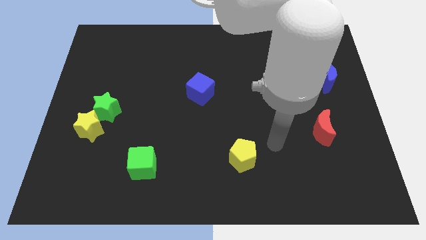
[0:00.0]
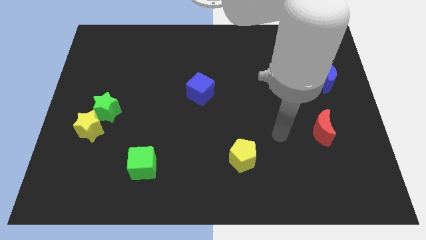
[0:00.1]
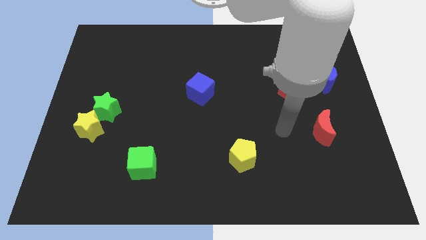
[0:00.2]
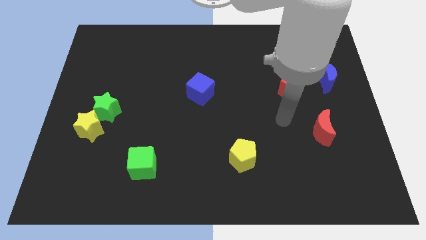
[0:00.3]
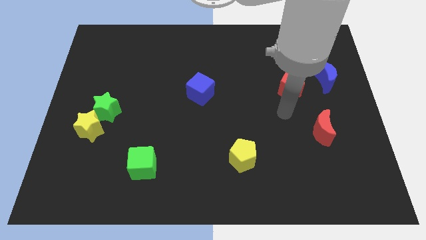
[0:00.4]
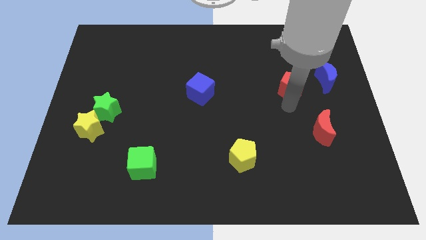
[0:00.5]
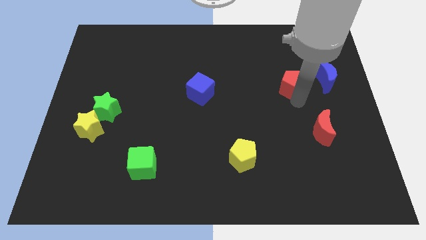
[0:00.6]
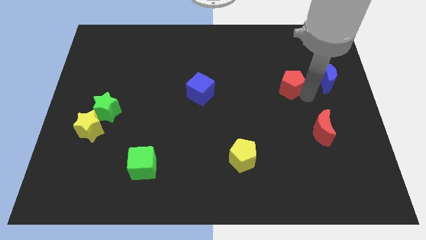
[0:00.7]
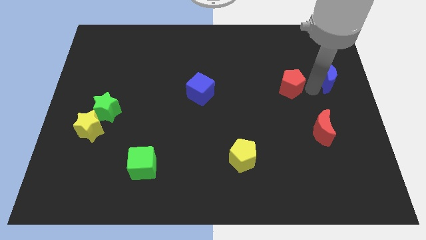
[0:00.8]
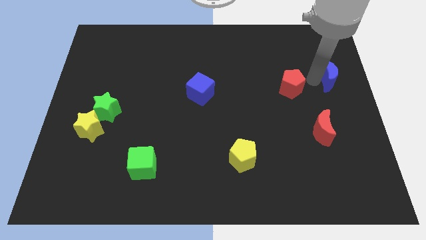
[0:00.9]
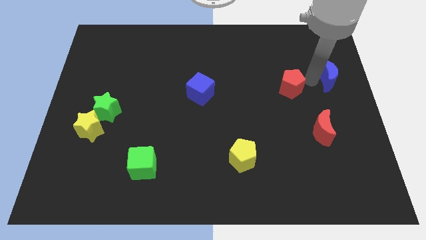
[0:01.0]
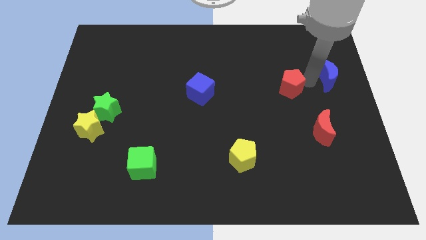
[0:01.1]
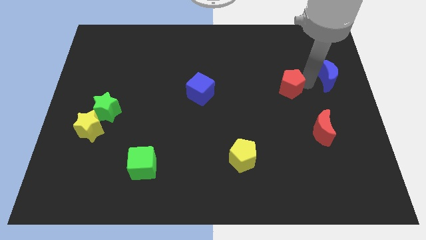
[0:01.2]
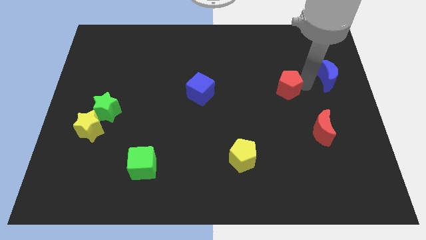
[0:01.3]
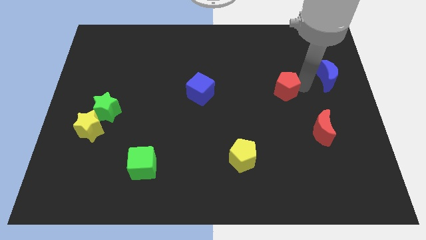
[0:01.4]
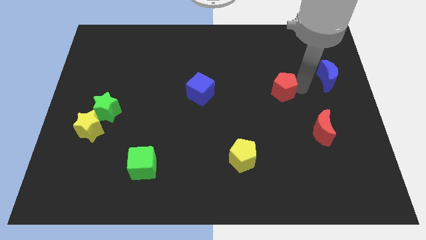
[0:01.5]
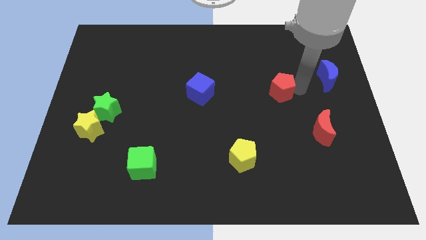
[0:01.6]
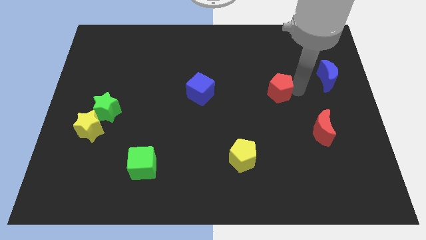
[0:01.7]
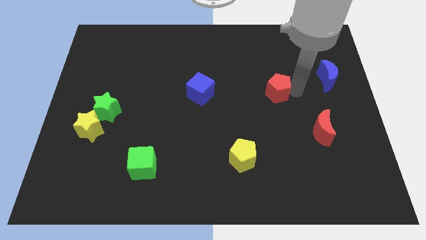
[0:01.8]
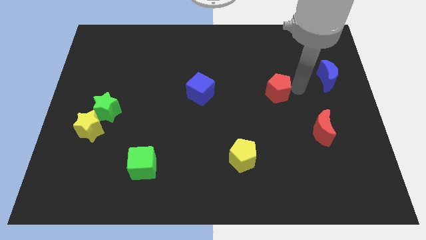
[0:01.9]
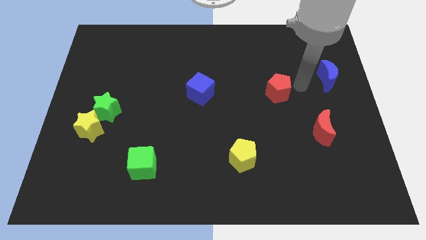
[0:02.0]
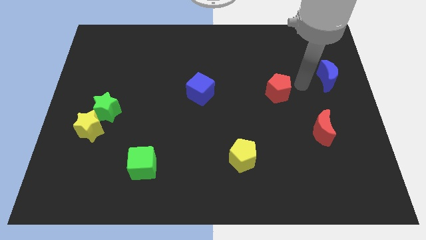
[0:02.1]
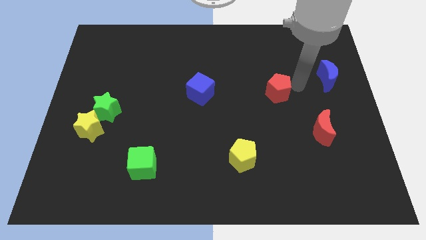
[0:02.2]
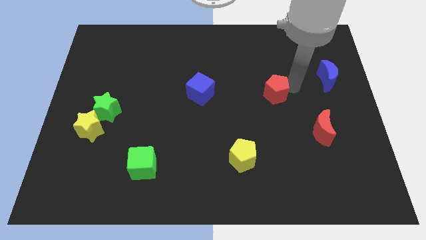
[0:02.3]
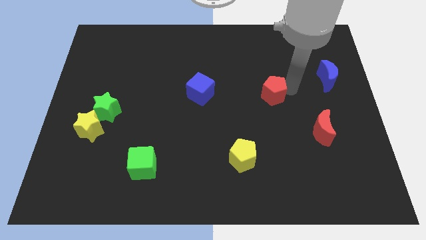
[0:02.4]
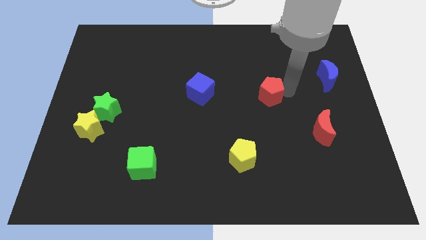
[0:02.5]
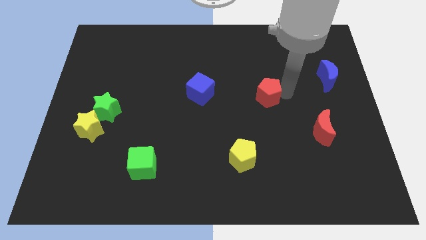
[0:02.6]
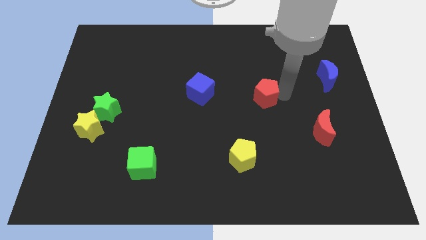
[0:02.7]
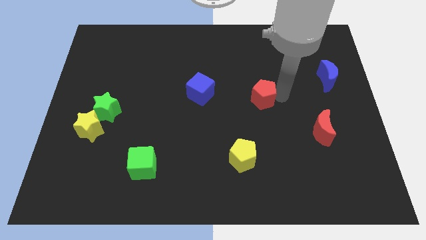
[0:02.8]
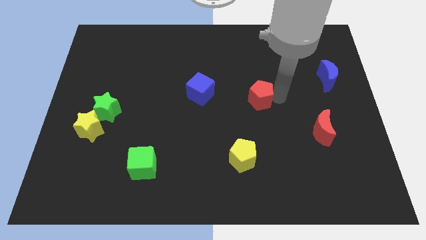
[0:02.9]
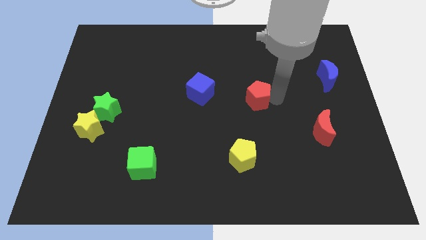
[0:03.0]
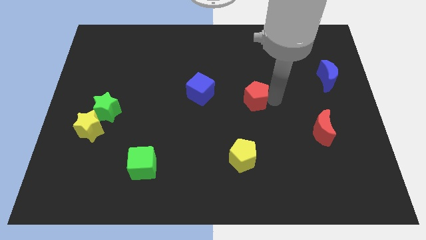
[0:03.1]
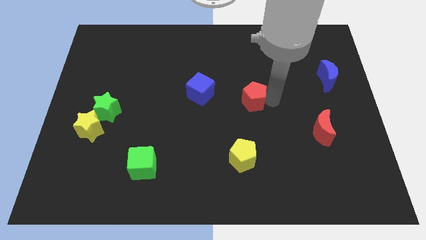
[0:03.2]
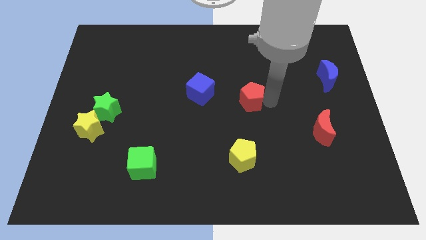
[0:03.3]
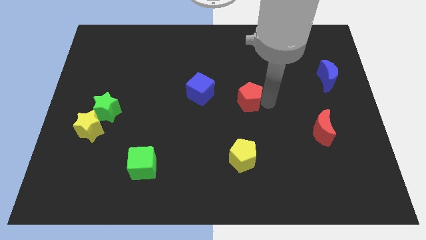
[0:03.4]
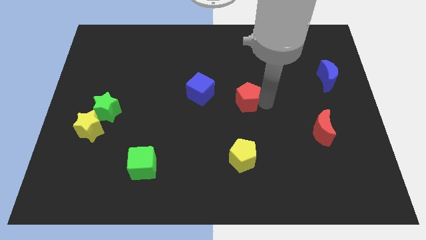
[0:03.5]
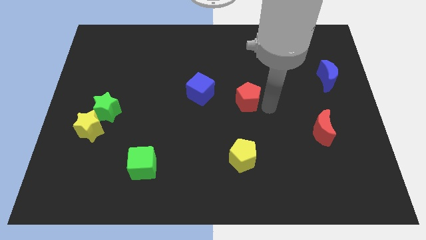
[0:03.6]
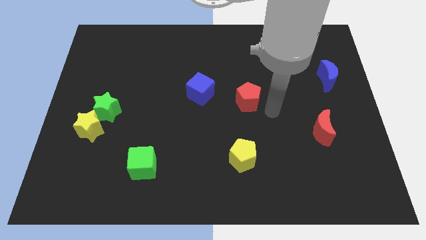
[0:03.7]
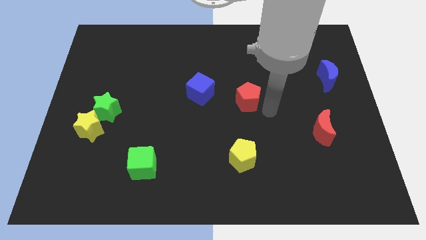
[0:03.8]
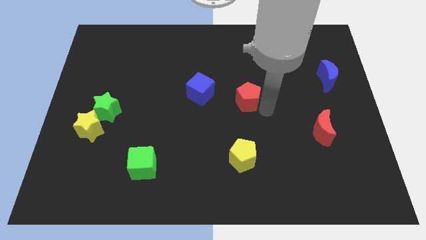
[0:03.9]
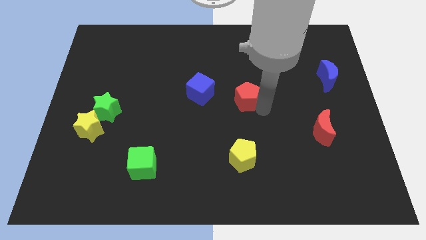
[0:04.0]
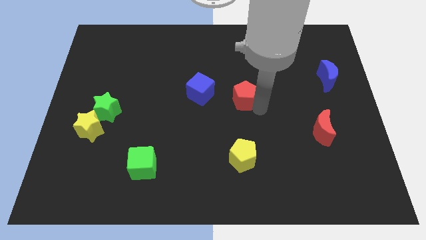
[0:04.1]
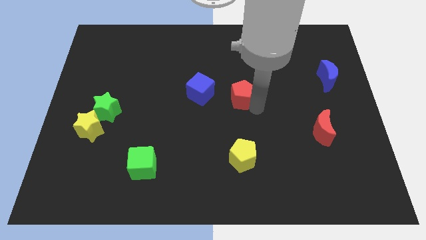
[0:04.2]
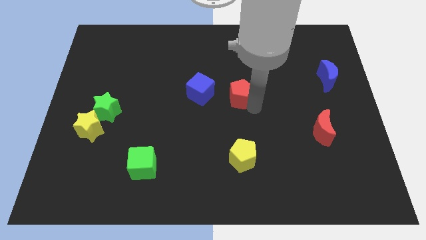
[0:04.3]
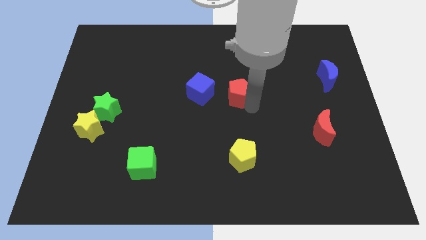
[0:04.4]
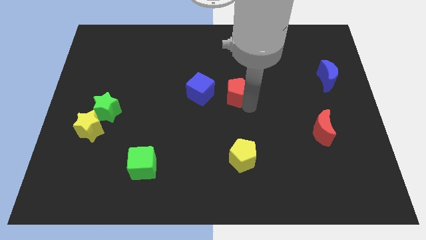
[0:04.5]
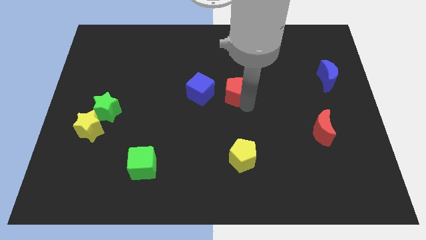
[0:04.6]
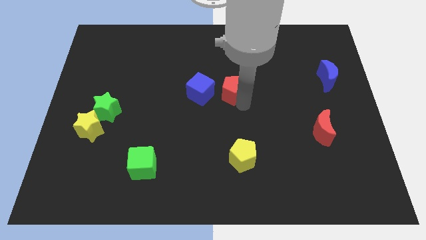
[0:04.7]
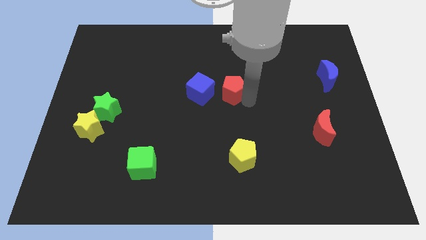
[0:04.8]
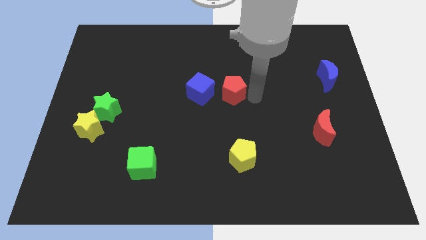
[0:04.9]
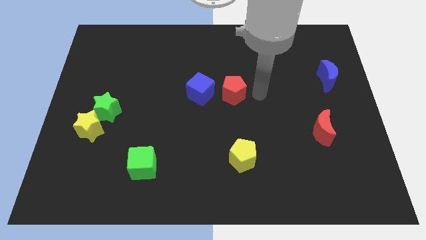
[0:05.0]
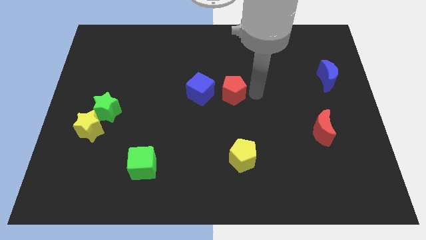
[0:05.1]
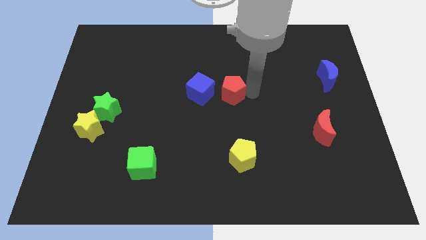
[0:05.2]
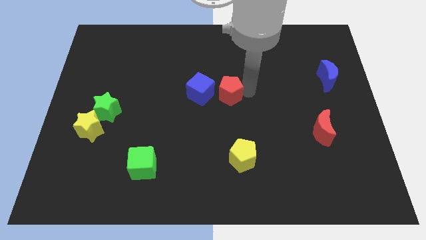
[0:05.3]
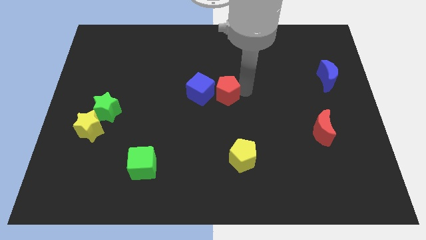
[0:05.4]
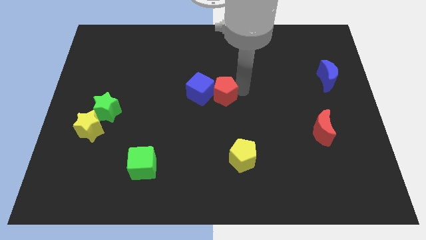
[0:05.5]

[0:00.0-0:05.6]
put the red pentagon next to the blue cube

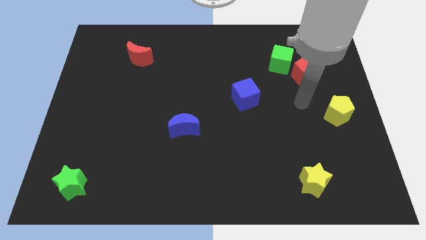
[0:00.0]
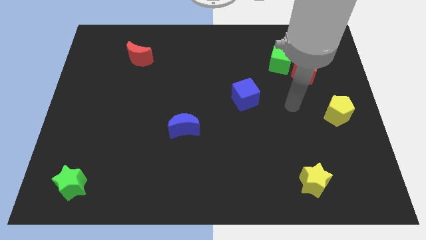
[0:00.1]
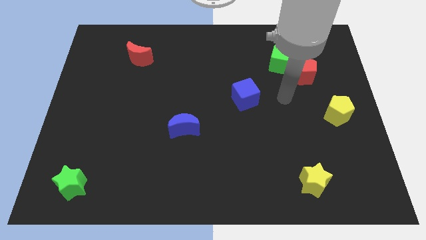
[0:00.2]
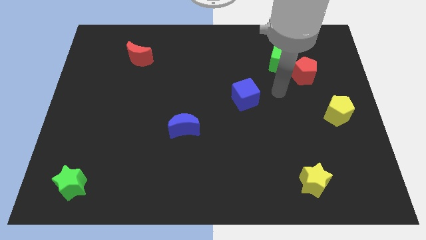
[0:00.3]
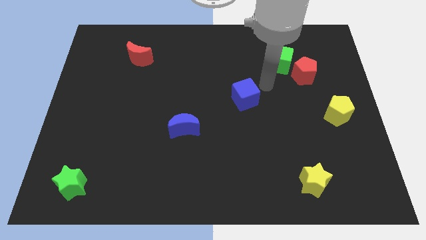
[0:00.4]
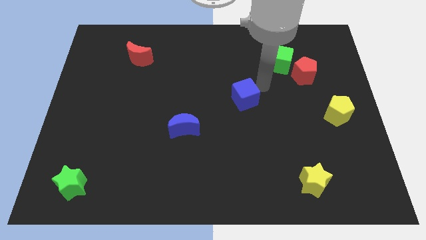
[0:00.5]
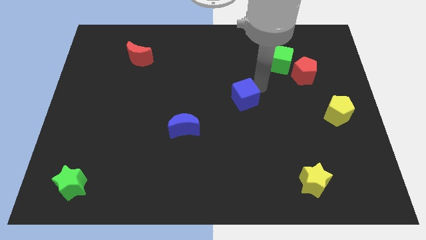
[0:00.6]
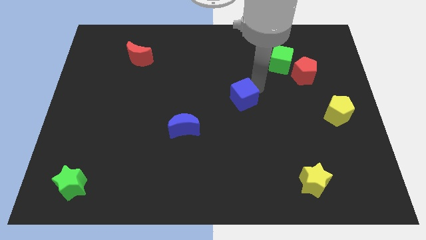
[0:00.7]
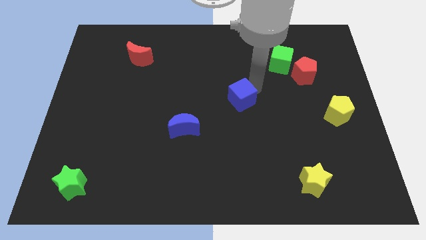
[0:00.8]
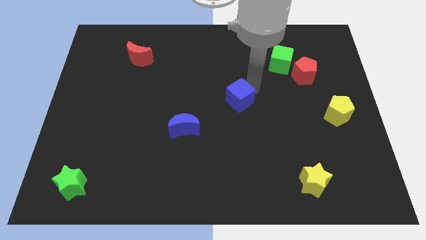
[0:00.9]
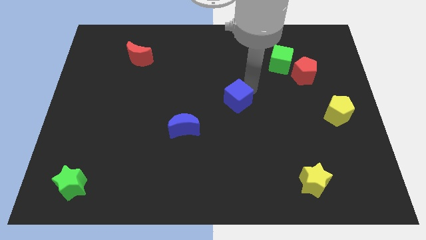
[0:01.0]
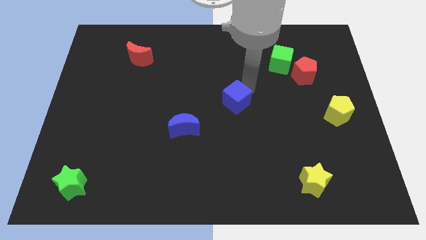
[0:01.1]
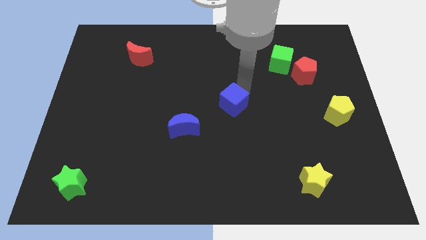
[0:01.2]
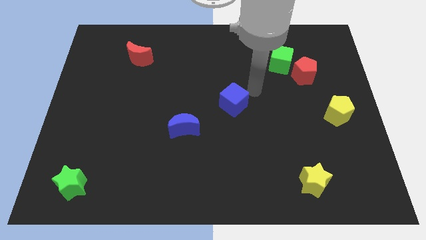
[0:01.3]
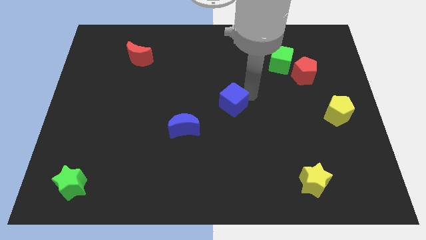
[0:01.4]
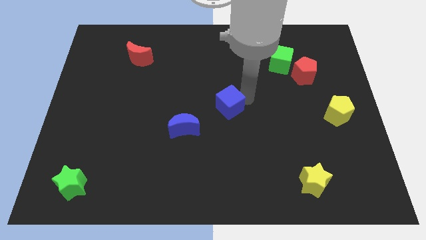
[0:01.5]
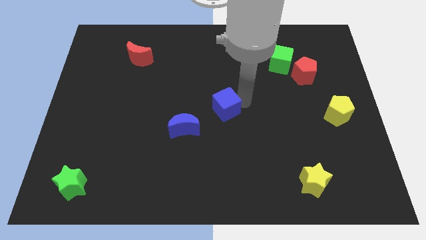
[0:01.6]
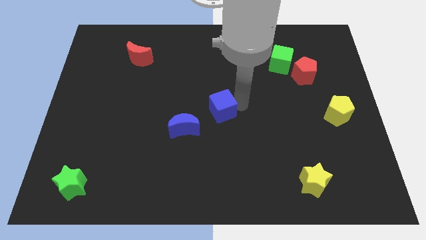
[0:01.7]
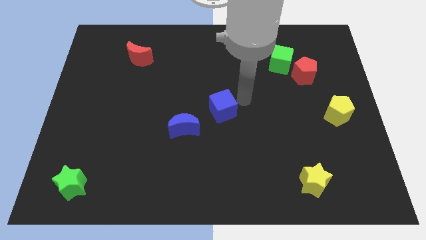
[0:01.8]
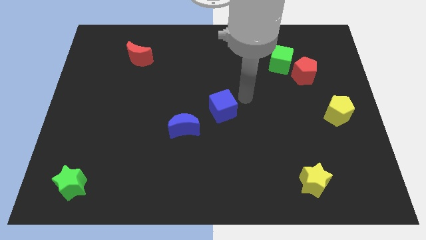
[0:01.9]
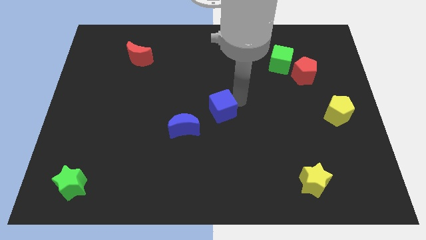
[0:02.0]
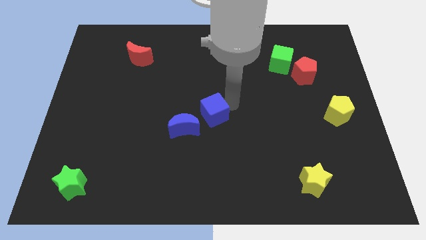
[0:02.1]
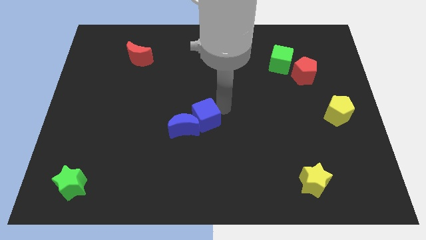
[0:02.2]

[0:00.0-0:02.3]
push the blue cube close to the blue moon
